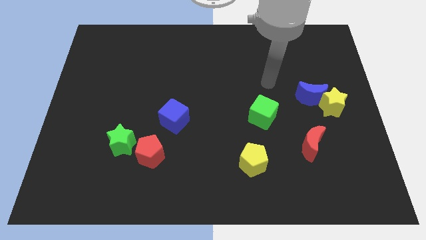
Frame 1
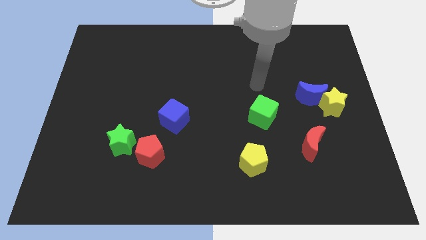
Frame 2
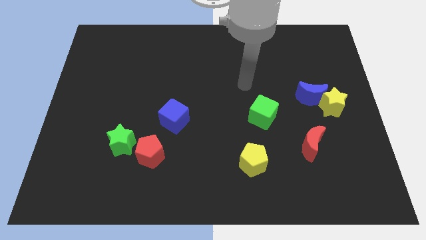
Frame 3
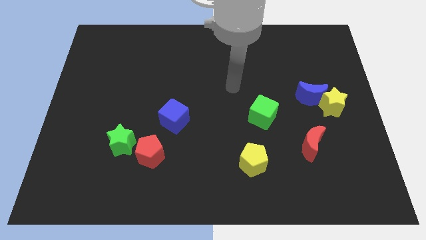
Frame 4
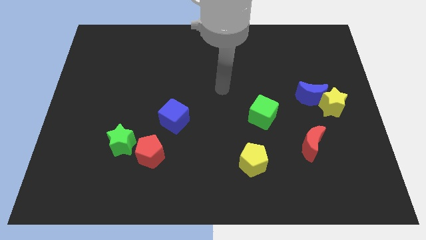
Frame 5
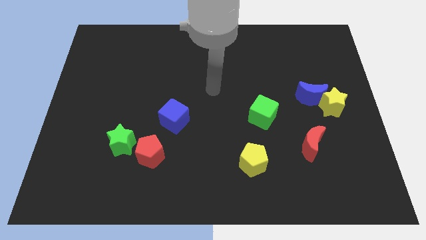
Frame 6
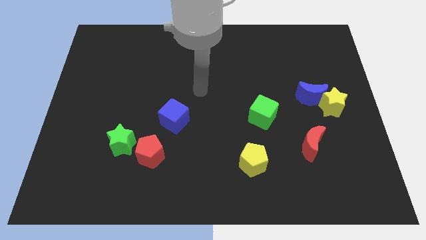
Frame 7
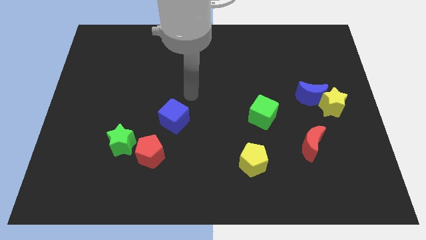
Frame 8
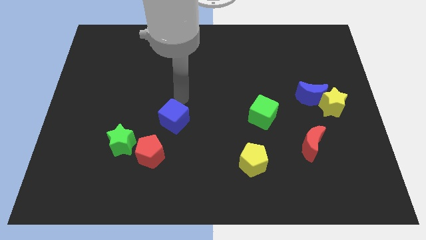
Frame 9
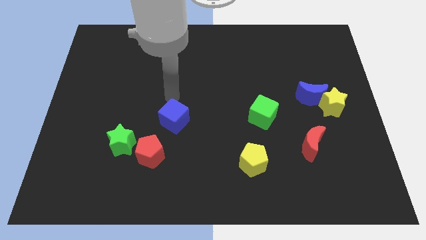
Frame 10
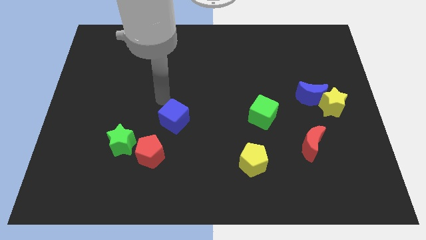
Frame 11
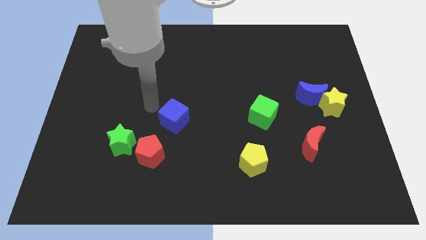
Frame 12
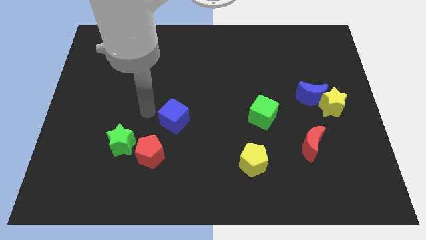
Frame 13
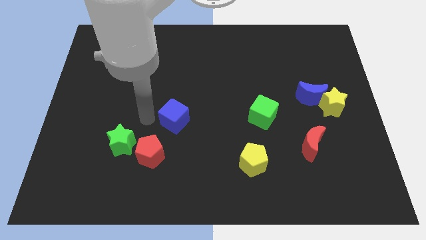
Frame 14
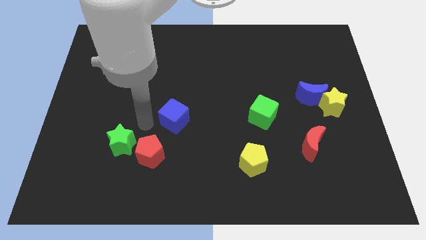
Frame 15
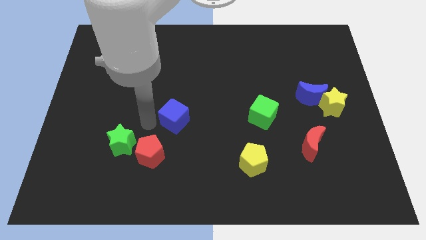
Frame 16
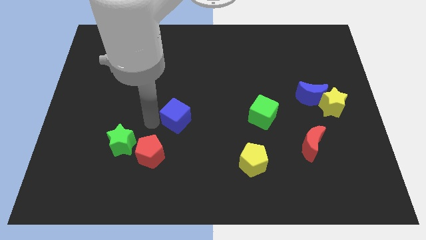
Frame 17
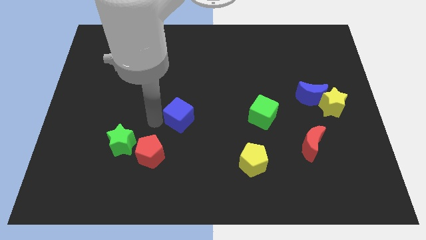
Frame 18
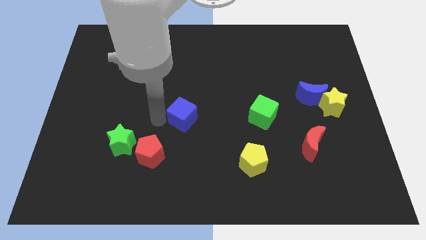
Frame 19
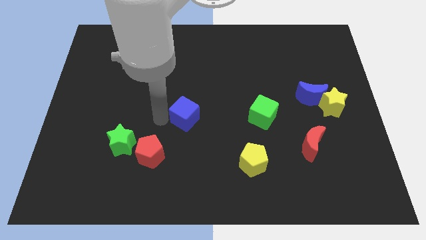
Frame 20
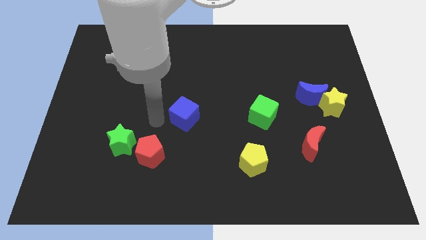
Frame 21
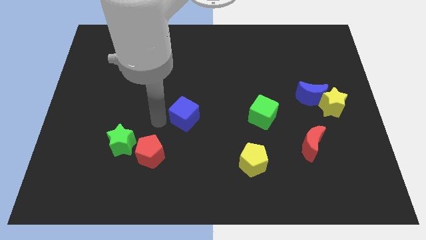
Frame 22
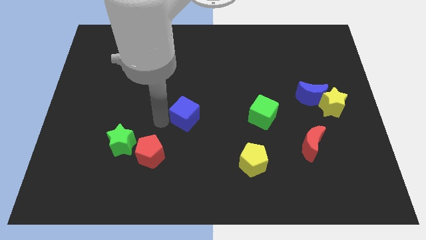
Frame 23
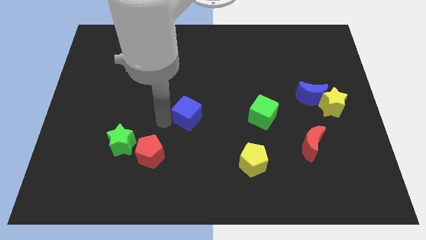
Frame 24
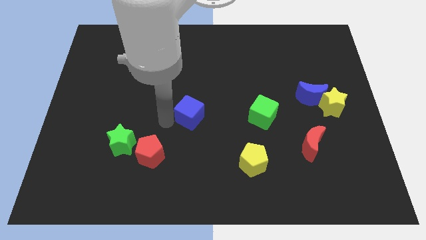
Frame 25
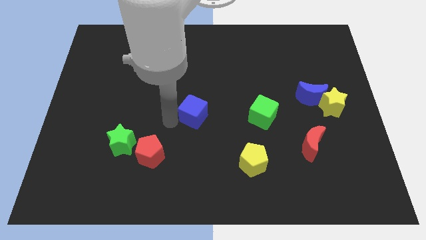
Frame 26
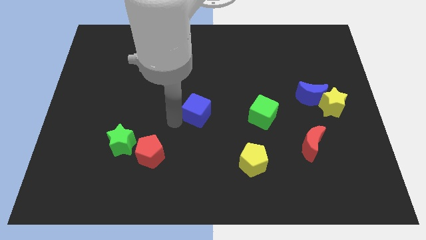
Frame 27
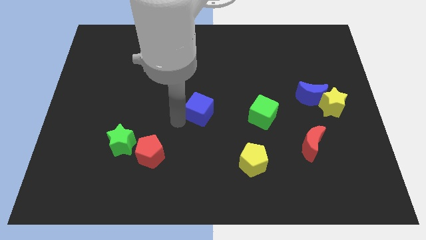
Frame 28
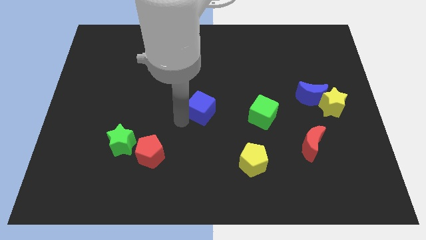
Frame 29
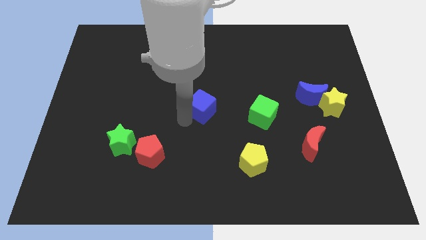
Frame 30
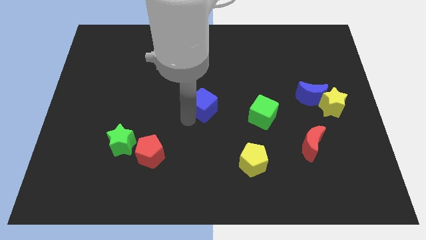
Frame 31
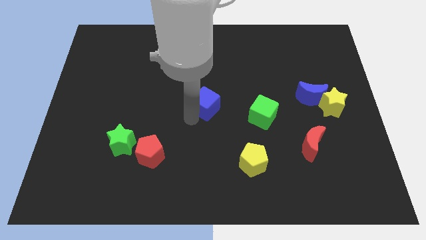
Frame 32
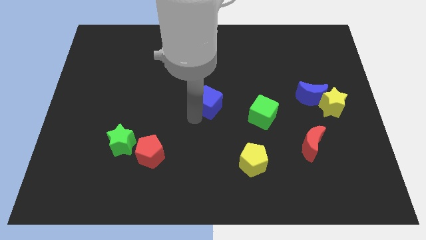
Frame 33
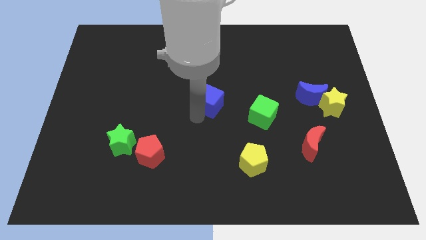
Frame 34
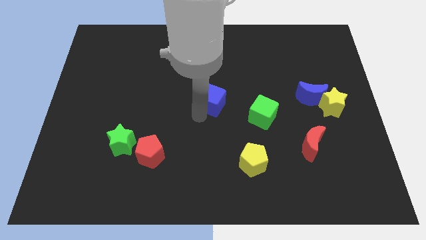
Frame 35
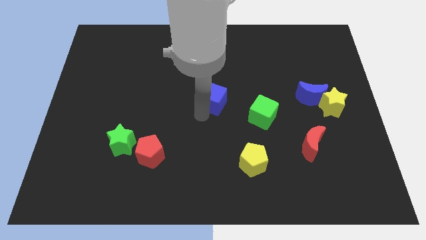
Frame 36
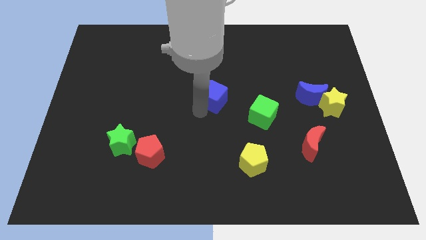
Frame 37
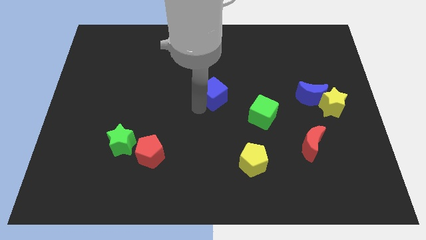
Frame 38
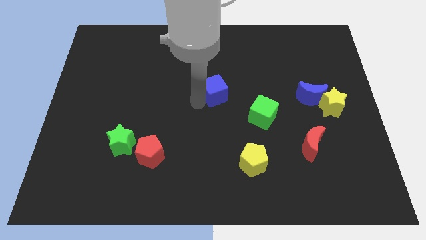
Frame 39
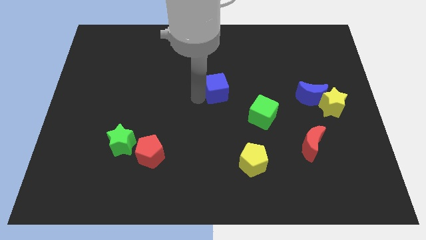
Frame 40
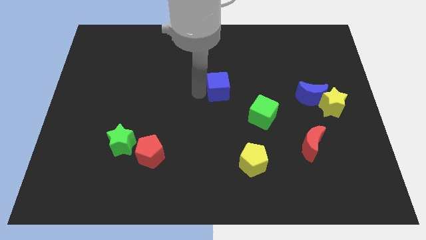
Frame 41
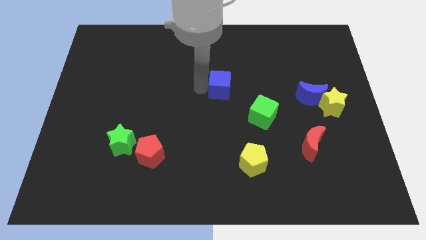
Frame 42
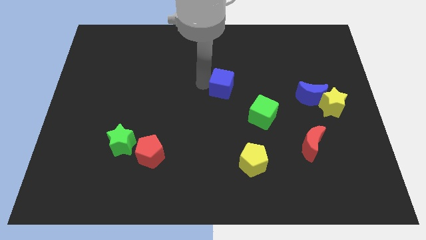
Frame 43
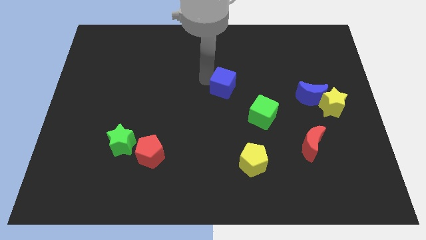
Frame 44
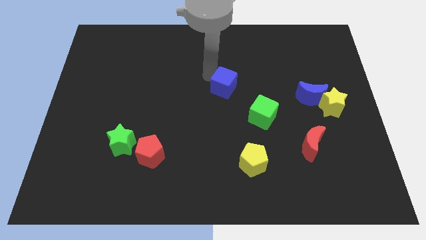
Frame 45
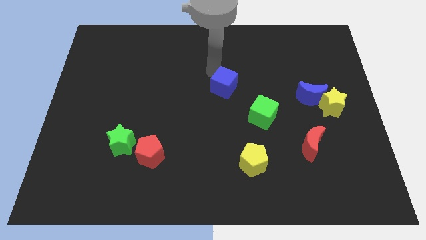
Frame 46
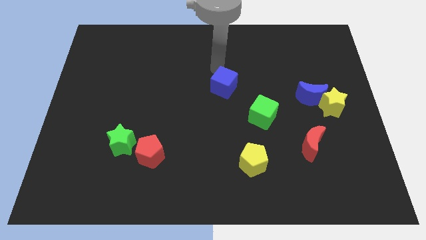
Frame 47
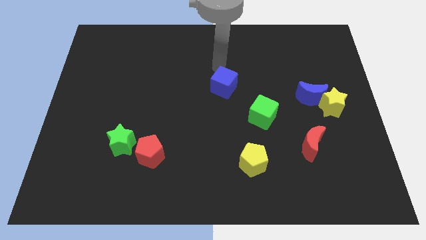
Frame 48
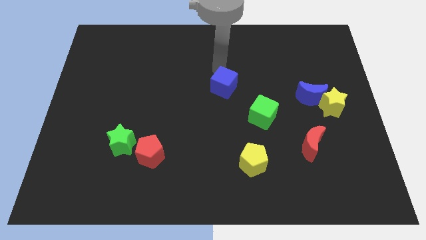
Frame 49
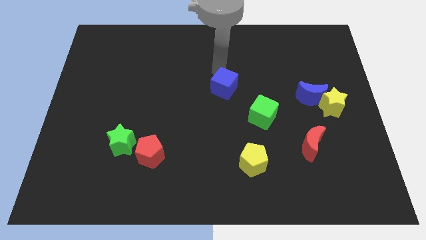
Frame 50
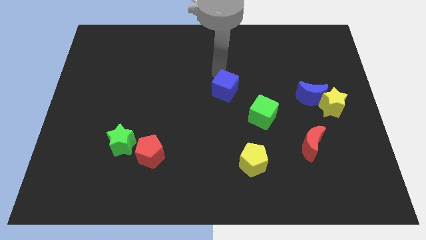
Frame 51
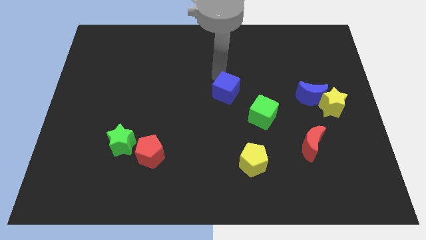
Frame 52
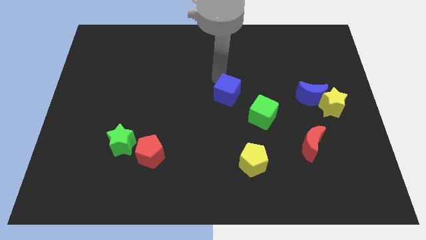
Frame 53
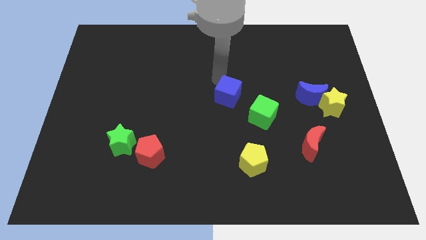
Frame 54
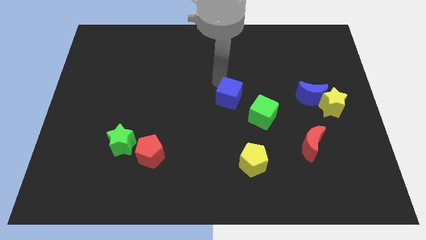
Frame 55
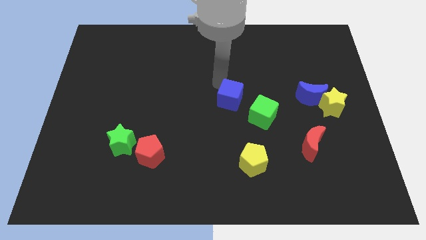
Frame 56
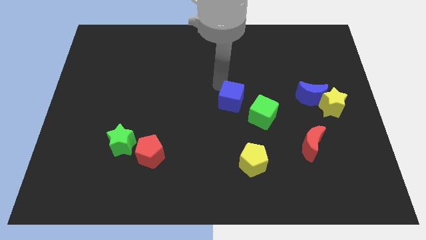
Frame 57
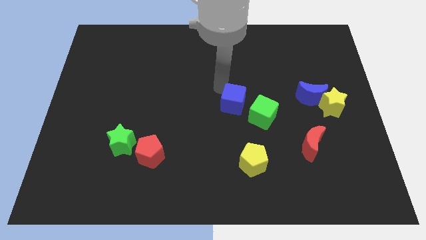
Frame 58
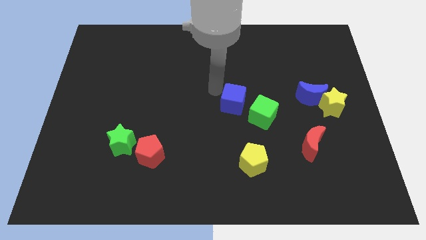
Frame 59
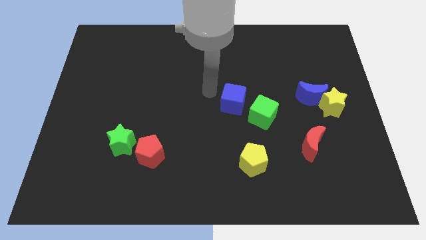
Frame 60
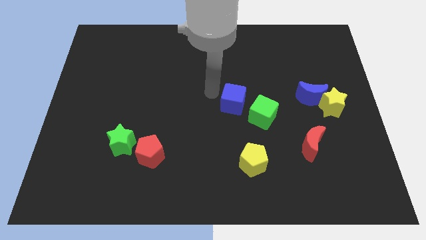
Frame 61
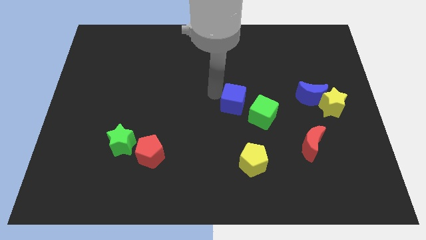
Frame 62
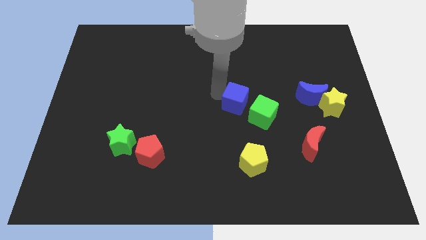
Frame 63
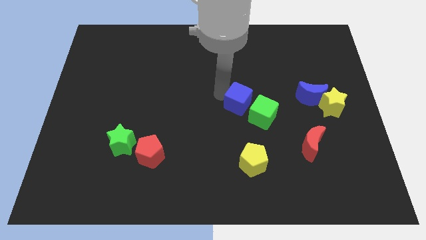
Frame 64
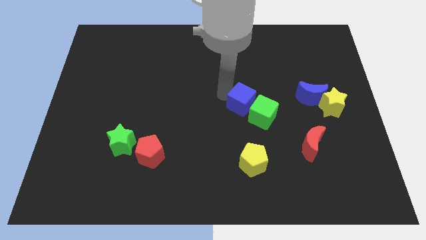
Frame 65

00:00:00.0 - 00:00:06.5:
slide the blue cube close to the green cube

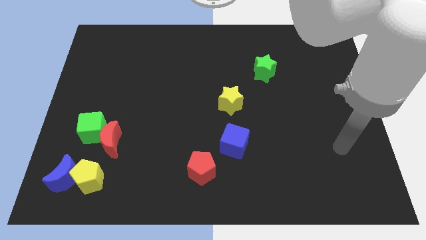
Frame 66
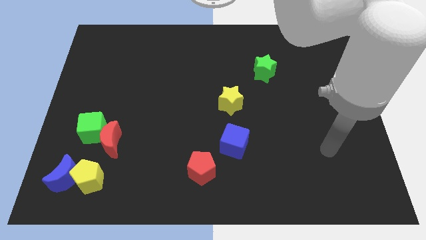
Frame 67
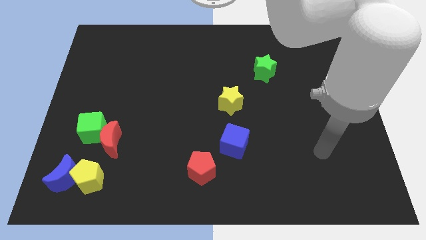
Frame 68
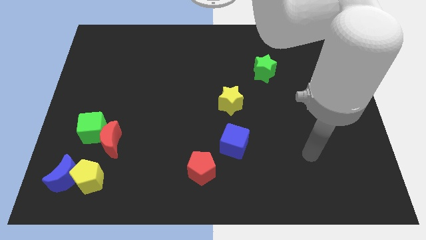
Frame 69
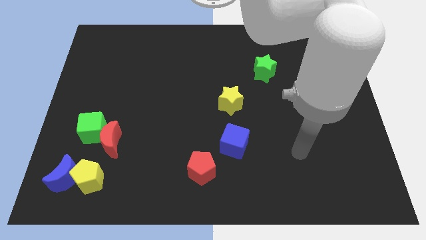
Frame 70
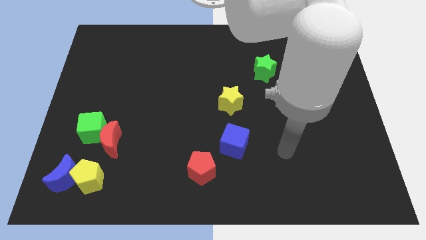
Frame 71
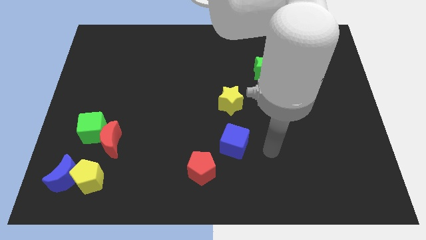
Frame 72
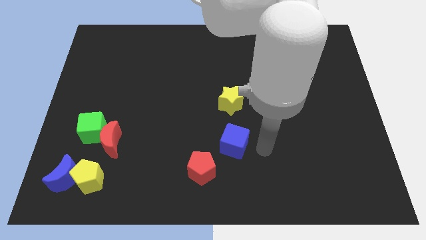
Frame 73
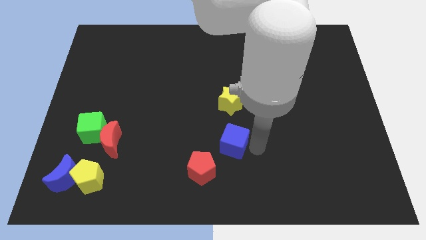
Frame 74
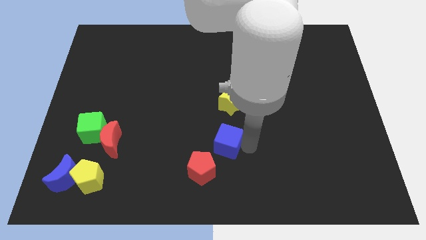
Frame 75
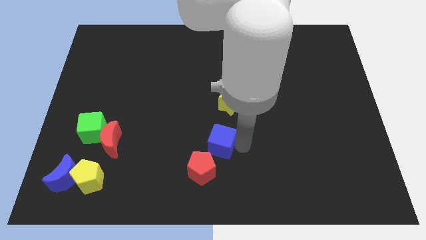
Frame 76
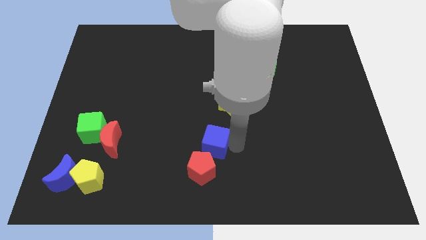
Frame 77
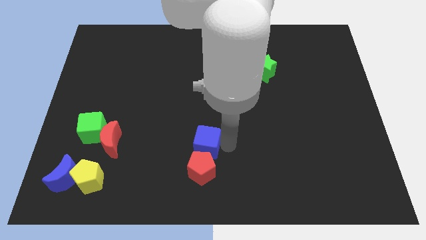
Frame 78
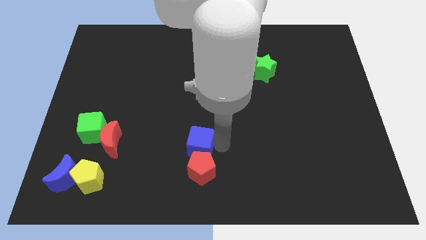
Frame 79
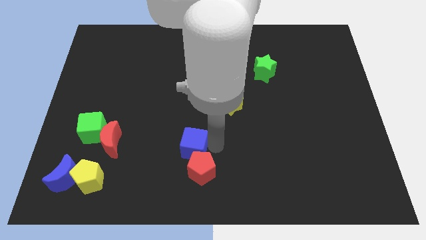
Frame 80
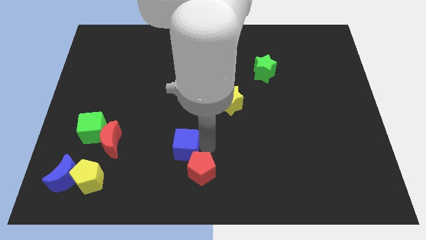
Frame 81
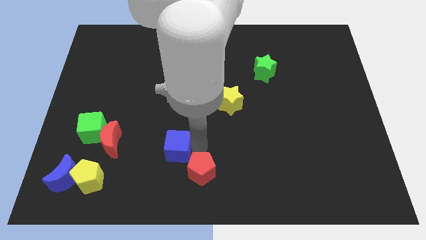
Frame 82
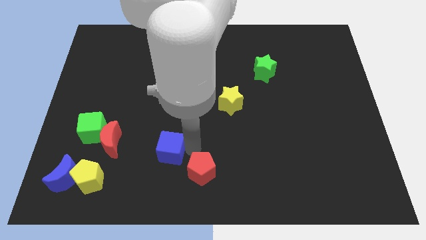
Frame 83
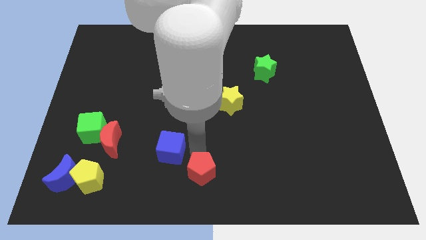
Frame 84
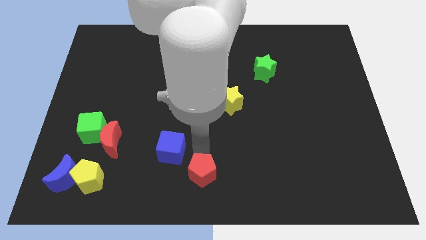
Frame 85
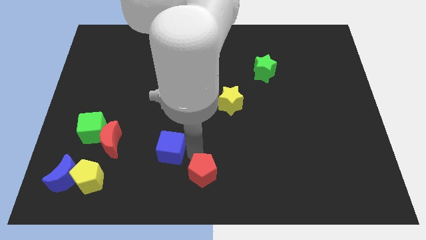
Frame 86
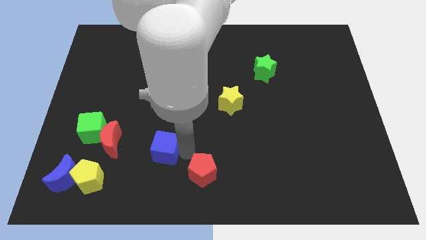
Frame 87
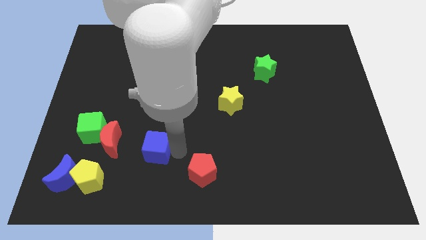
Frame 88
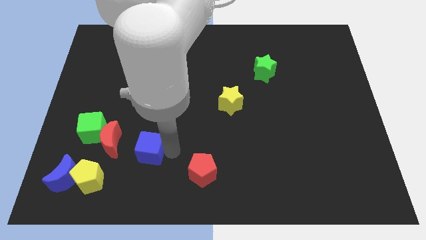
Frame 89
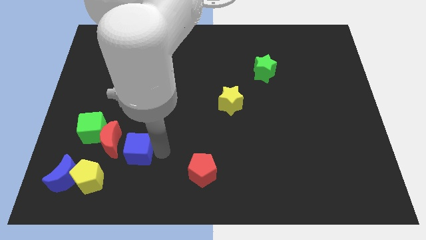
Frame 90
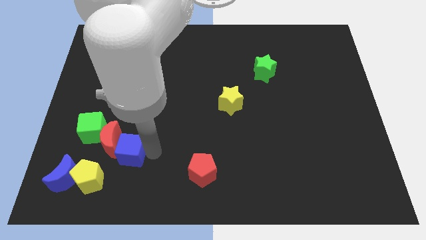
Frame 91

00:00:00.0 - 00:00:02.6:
slide the blue cube next to the red moon
